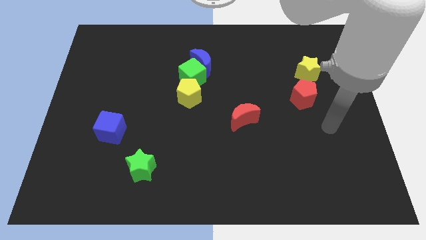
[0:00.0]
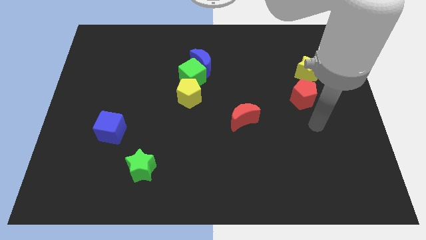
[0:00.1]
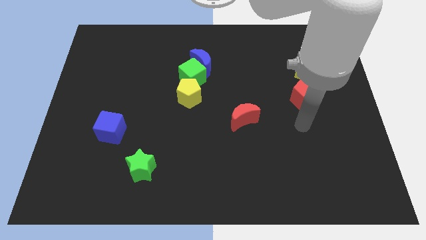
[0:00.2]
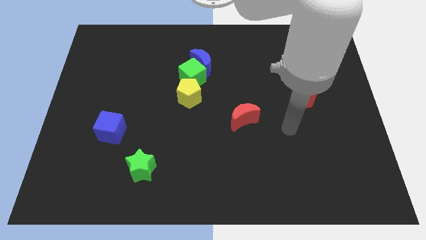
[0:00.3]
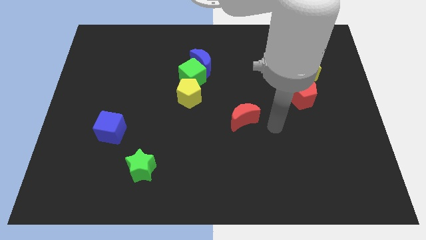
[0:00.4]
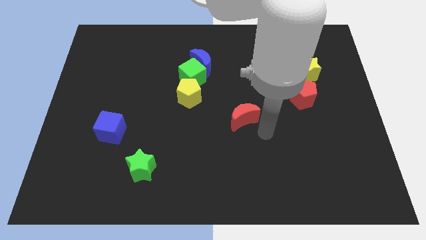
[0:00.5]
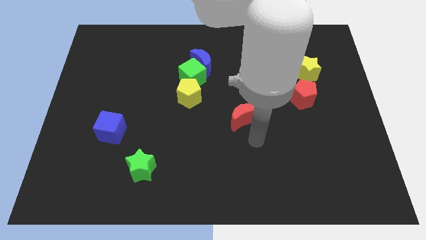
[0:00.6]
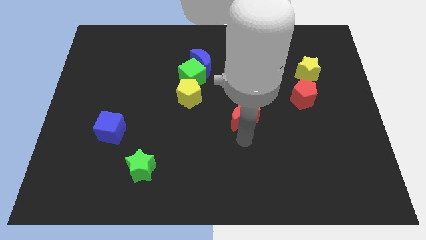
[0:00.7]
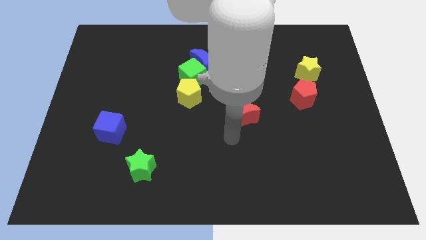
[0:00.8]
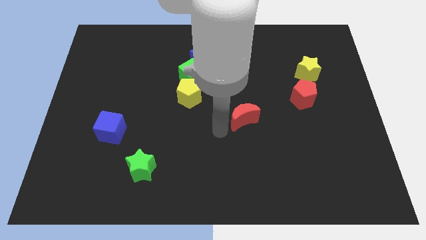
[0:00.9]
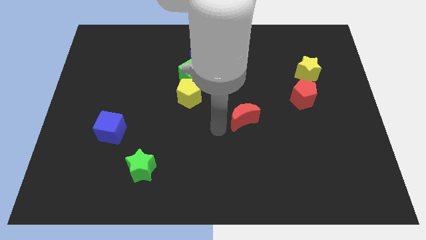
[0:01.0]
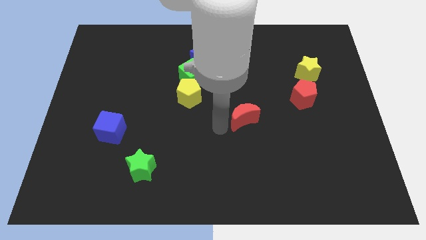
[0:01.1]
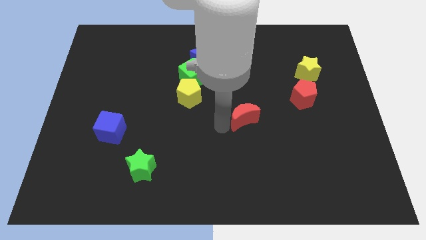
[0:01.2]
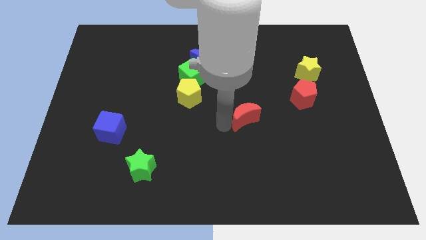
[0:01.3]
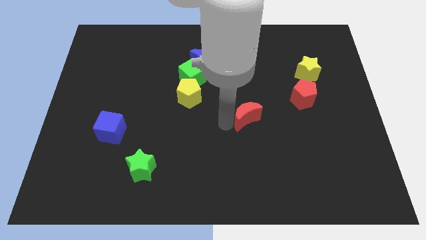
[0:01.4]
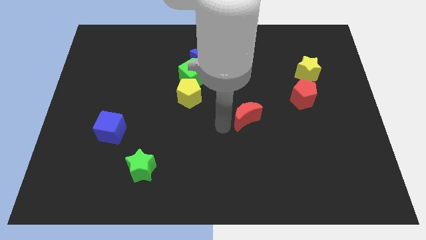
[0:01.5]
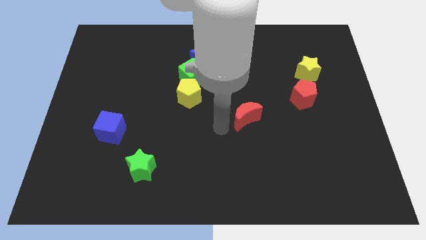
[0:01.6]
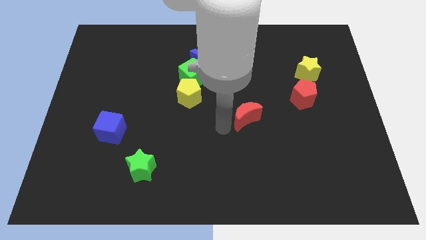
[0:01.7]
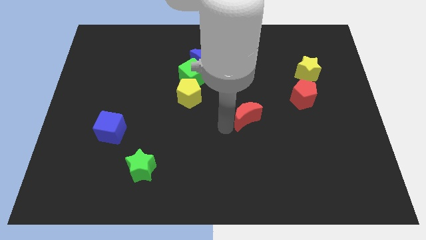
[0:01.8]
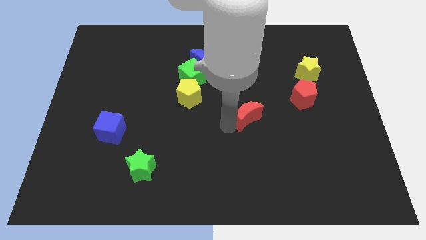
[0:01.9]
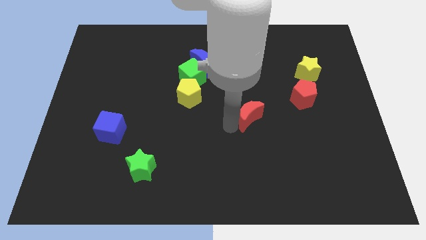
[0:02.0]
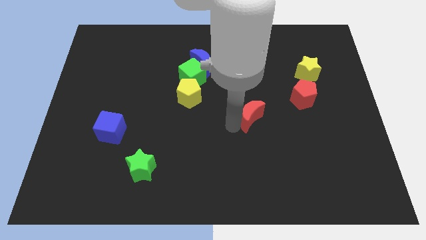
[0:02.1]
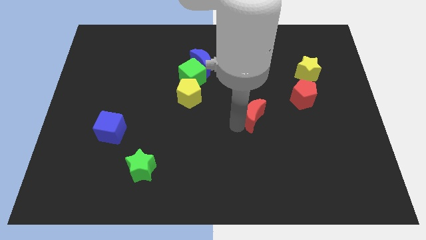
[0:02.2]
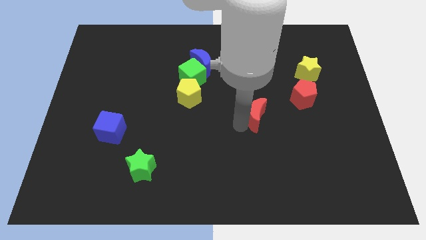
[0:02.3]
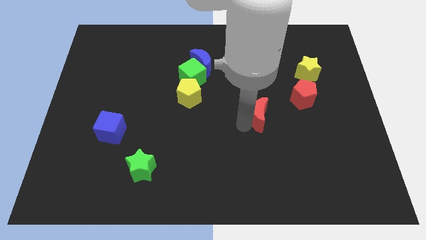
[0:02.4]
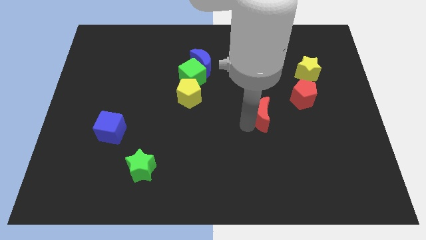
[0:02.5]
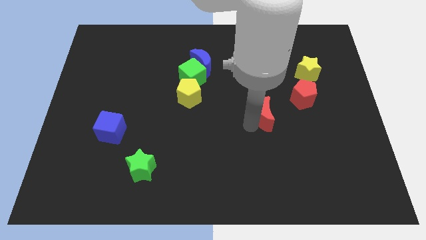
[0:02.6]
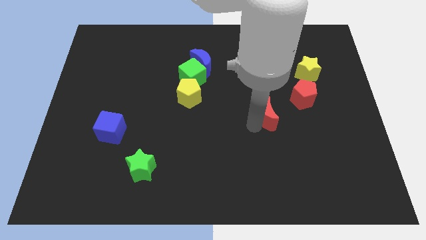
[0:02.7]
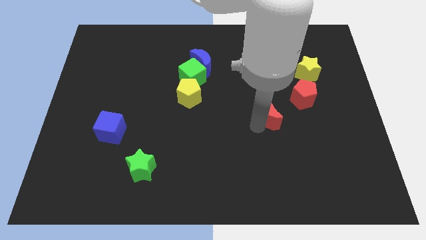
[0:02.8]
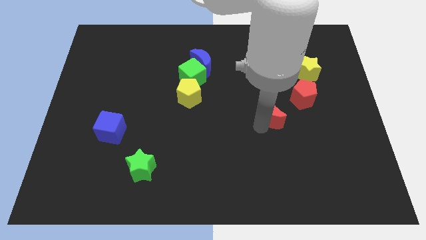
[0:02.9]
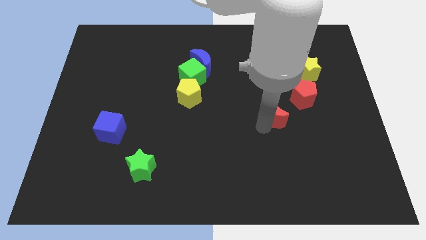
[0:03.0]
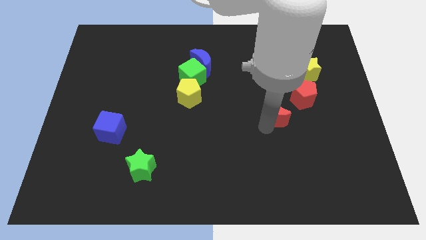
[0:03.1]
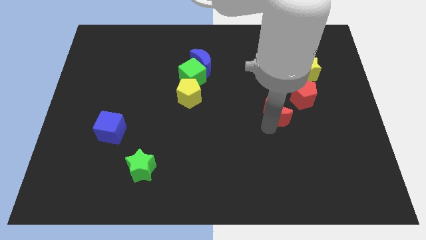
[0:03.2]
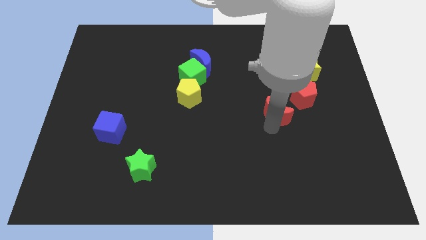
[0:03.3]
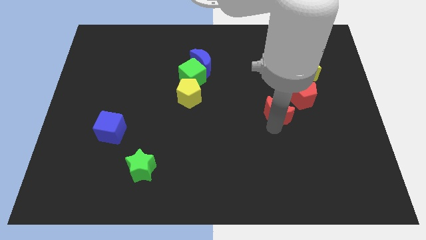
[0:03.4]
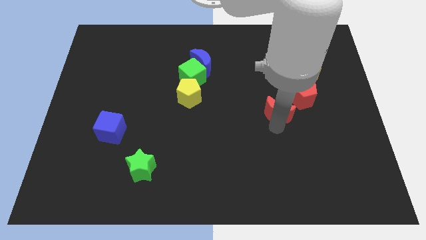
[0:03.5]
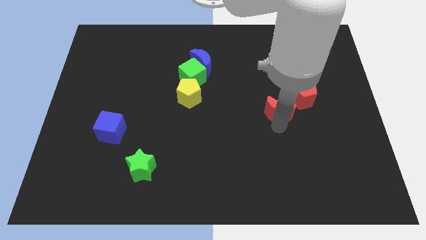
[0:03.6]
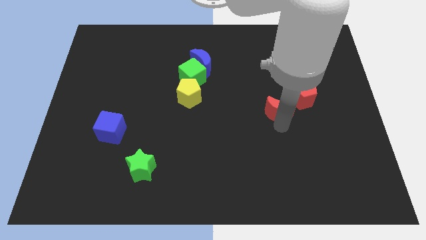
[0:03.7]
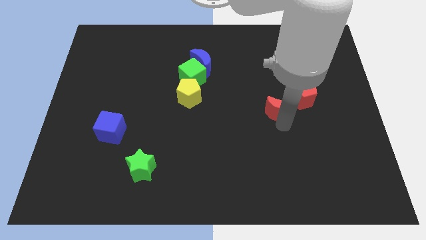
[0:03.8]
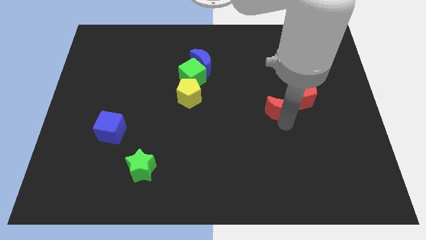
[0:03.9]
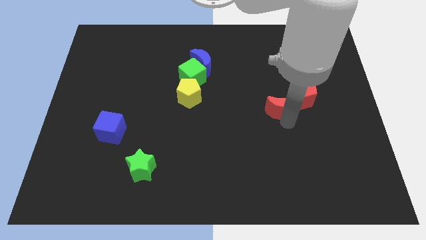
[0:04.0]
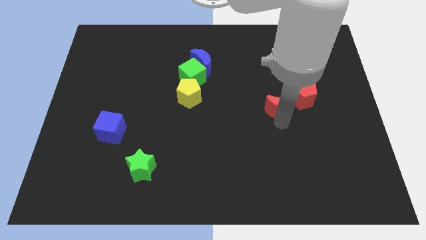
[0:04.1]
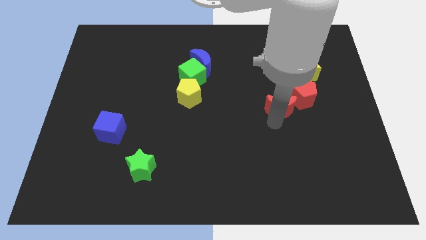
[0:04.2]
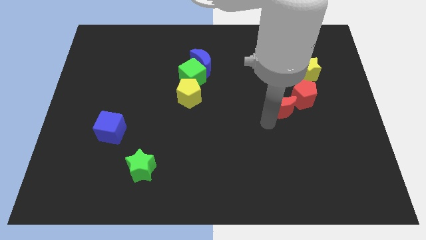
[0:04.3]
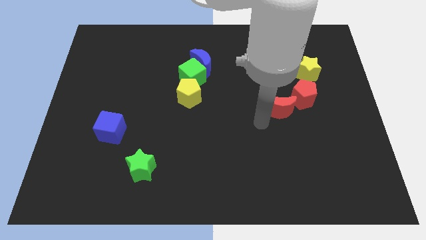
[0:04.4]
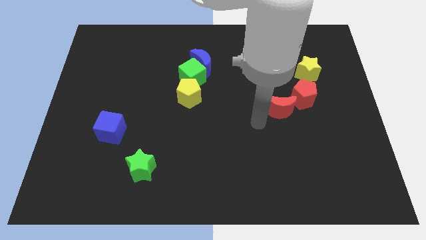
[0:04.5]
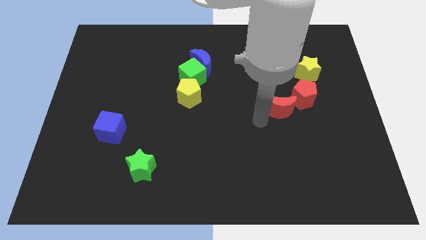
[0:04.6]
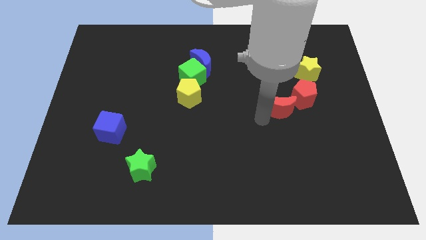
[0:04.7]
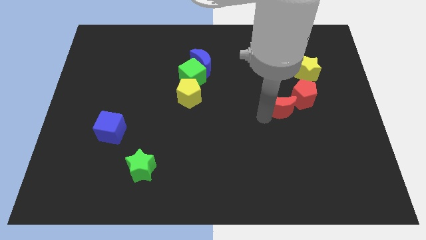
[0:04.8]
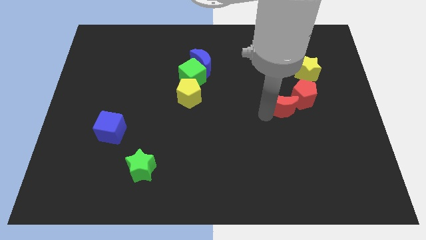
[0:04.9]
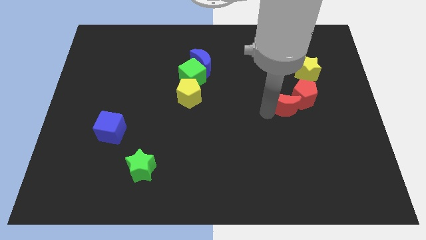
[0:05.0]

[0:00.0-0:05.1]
move the red moon towards the red pentagon

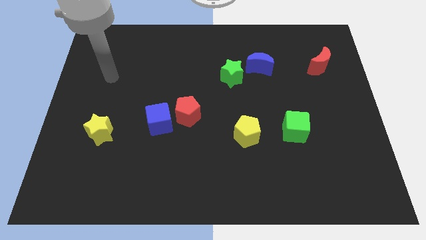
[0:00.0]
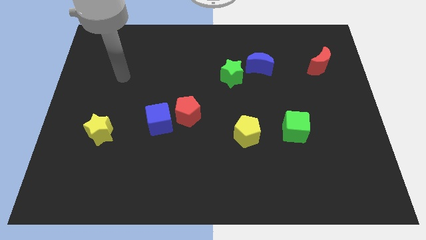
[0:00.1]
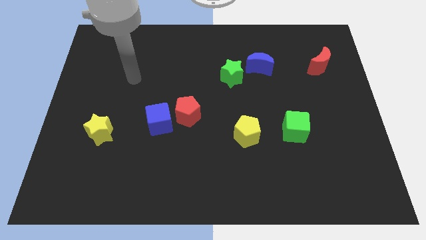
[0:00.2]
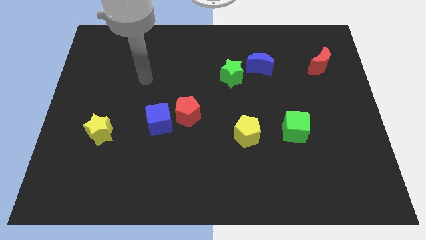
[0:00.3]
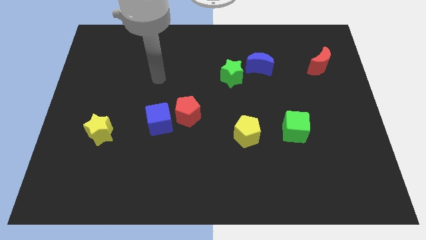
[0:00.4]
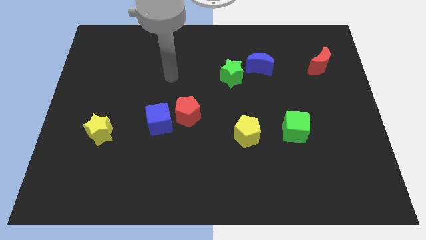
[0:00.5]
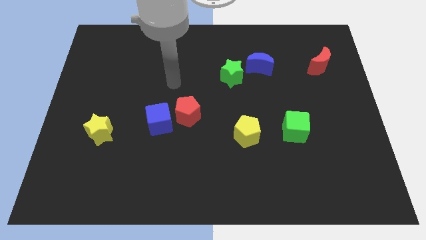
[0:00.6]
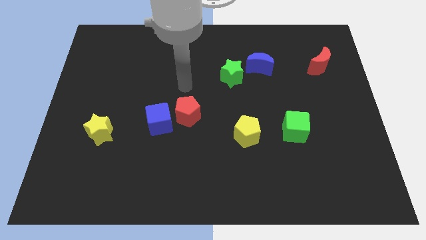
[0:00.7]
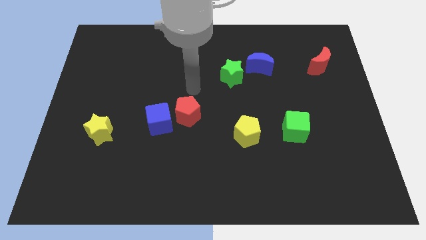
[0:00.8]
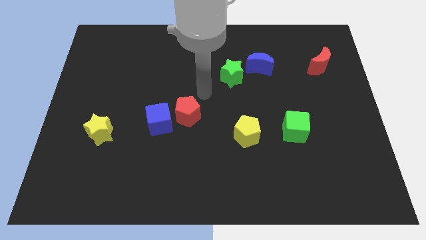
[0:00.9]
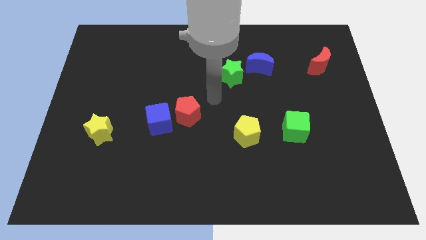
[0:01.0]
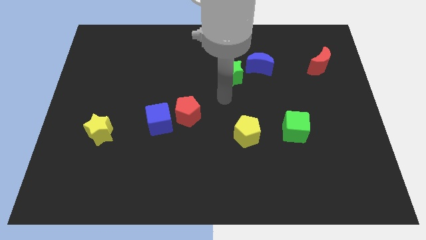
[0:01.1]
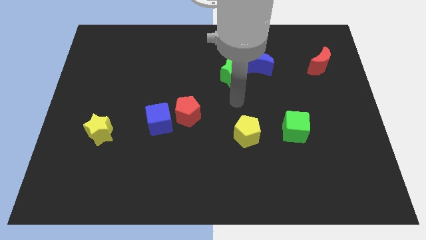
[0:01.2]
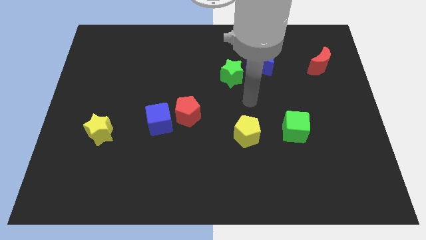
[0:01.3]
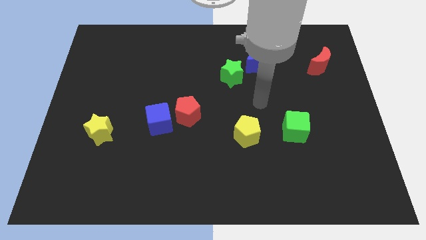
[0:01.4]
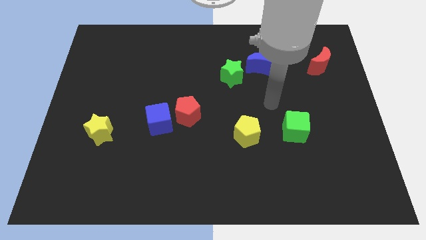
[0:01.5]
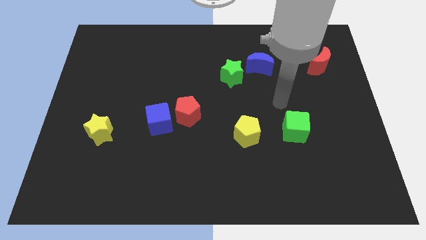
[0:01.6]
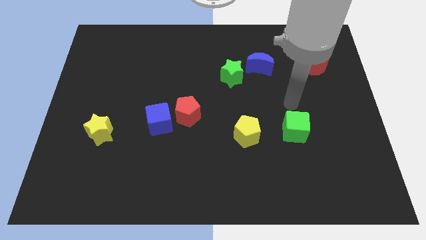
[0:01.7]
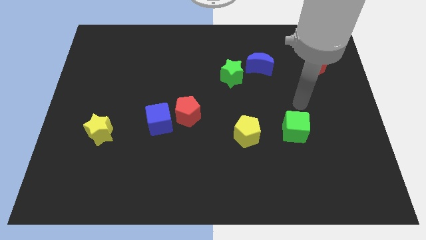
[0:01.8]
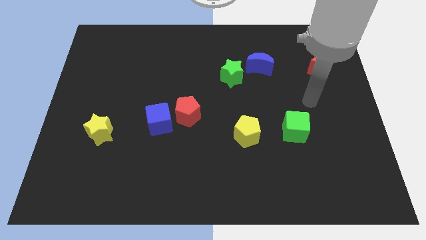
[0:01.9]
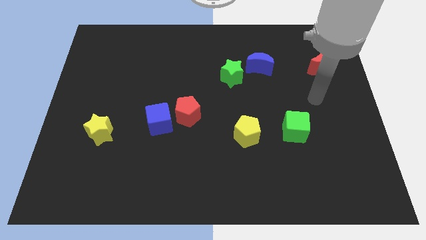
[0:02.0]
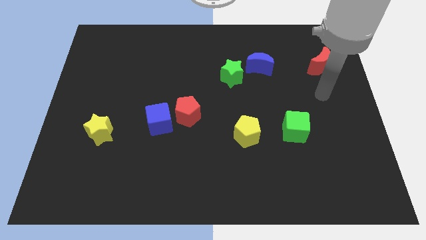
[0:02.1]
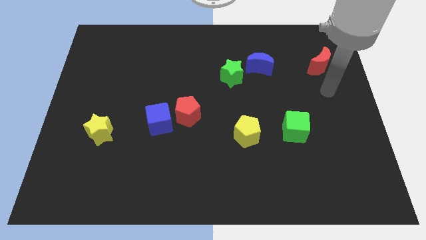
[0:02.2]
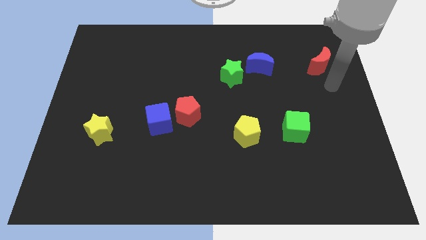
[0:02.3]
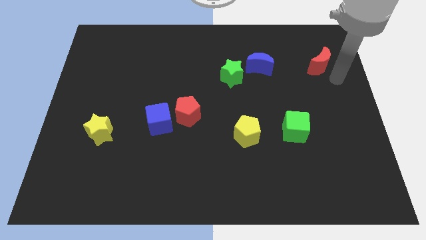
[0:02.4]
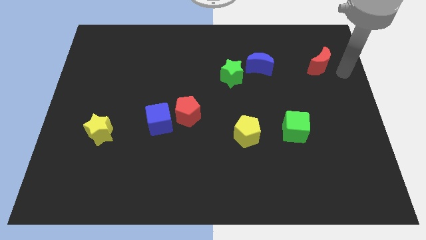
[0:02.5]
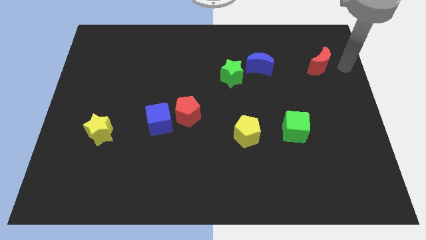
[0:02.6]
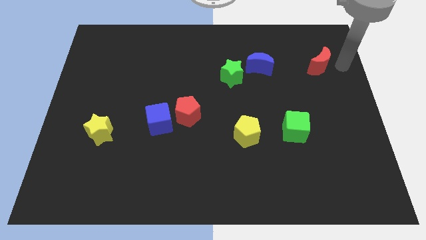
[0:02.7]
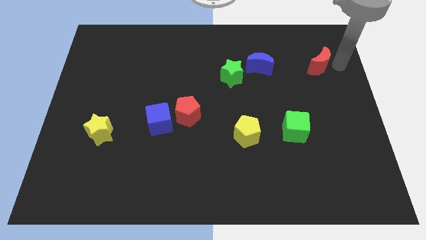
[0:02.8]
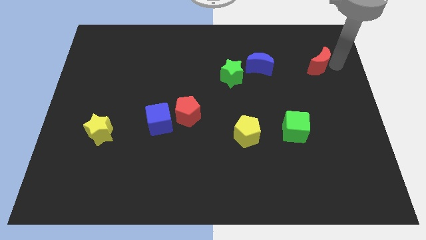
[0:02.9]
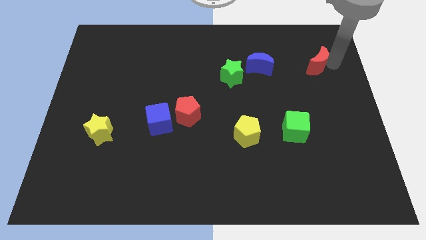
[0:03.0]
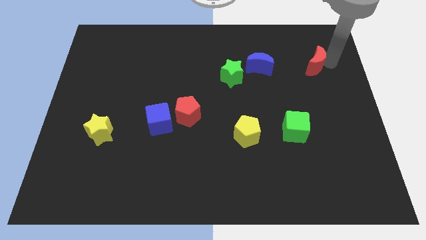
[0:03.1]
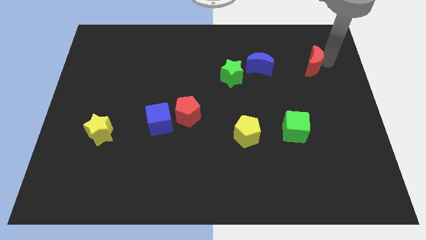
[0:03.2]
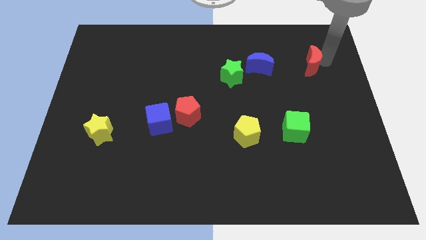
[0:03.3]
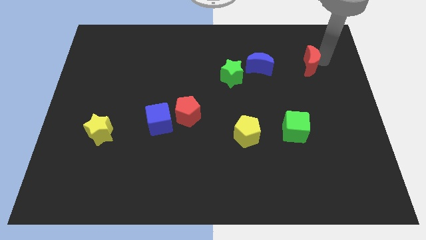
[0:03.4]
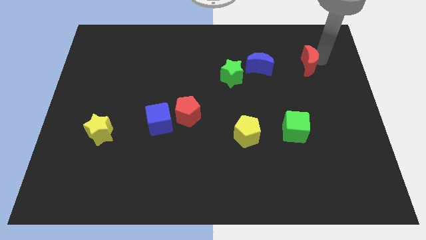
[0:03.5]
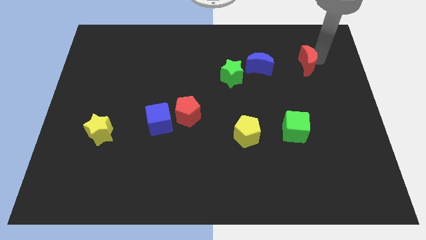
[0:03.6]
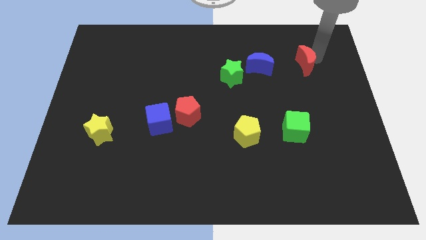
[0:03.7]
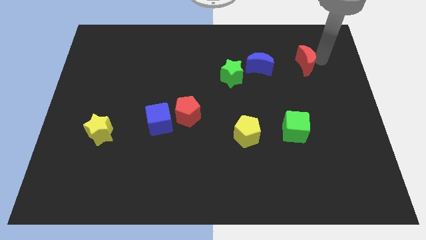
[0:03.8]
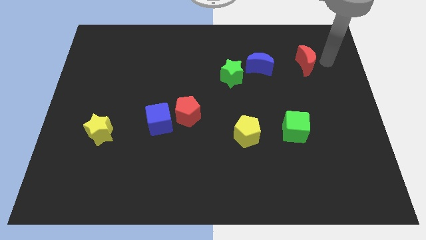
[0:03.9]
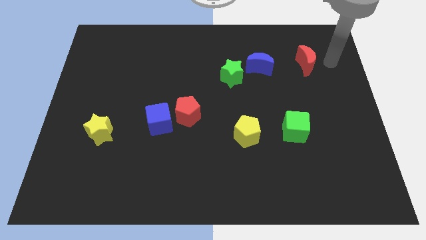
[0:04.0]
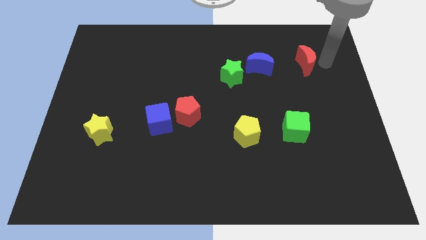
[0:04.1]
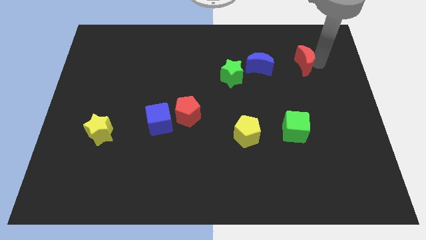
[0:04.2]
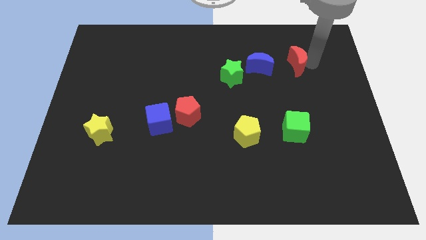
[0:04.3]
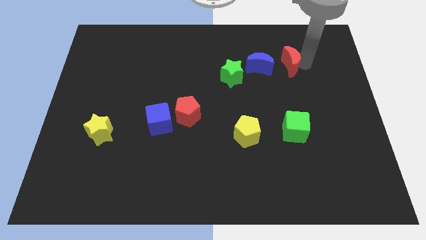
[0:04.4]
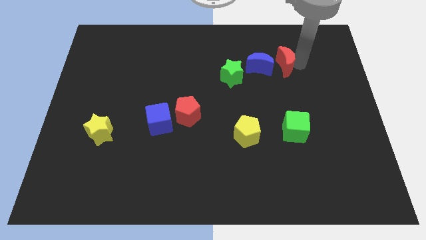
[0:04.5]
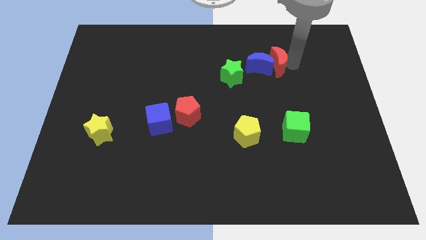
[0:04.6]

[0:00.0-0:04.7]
push the red moon to the blue moon
